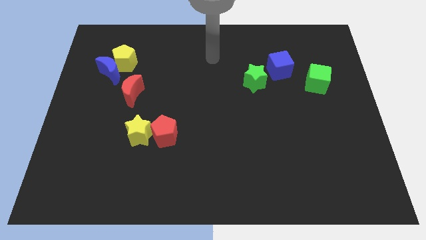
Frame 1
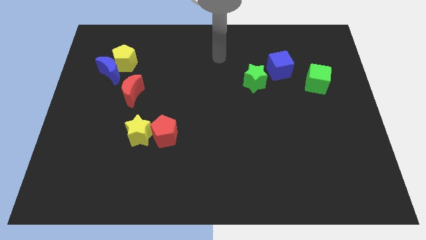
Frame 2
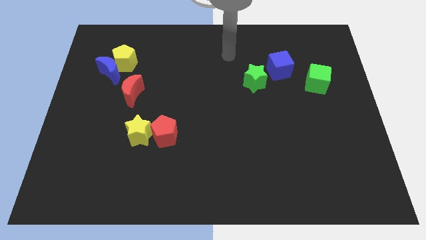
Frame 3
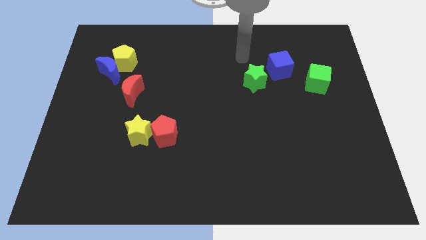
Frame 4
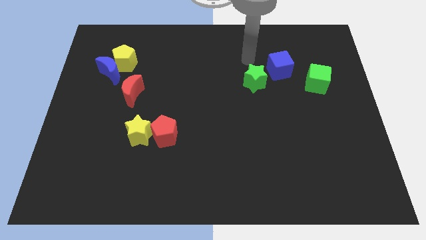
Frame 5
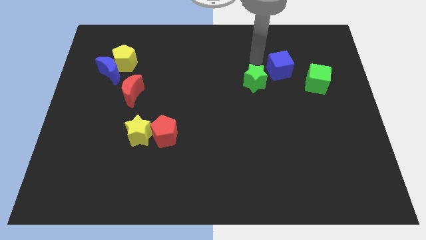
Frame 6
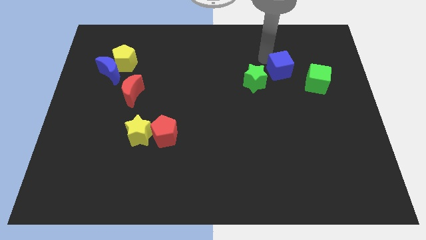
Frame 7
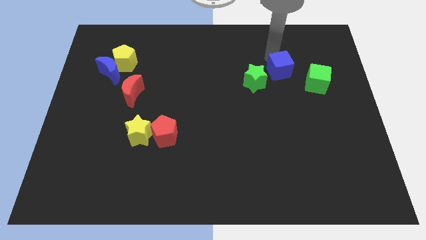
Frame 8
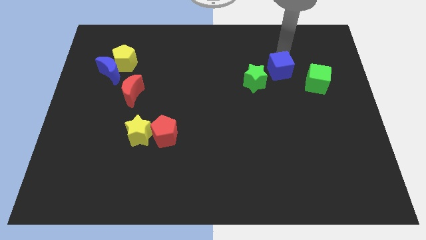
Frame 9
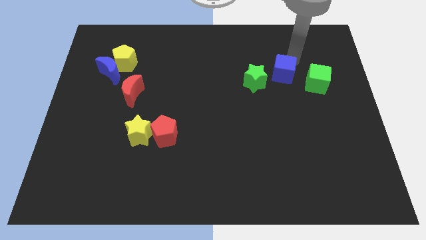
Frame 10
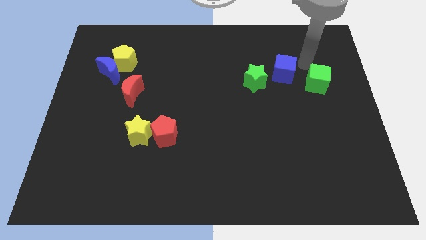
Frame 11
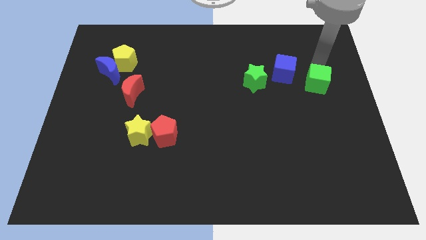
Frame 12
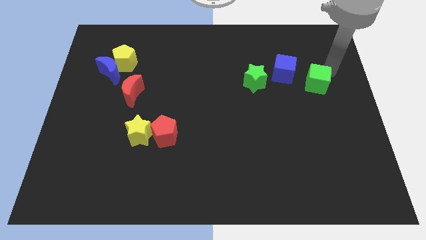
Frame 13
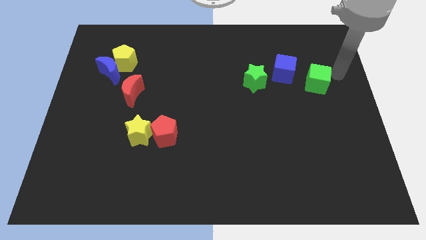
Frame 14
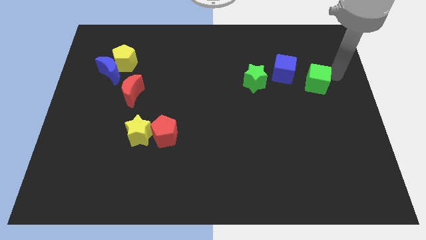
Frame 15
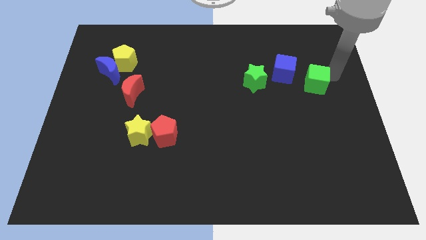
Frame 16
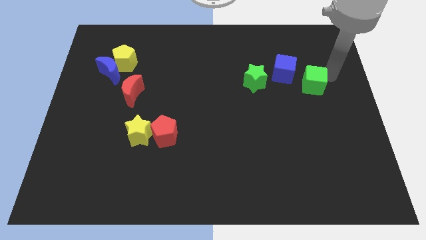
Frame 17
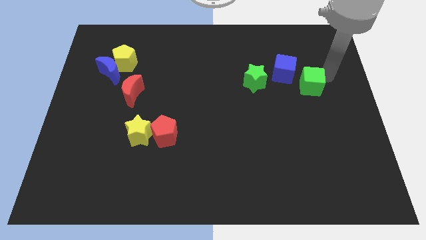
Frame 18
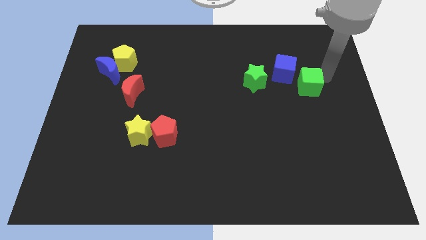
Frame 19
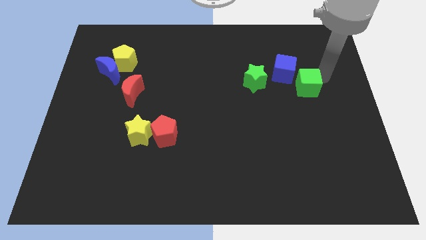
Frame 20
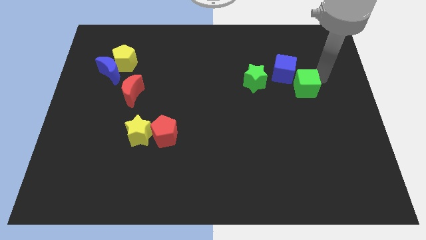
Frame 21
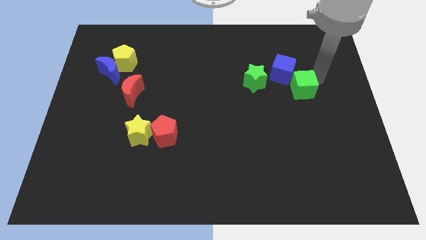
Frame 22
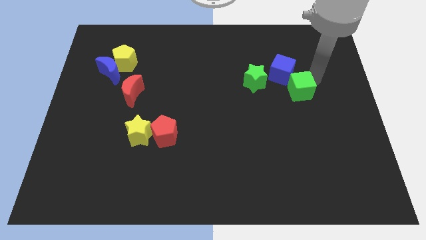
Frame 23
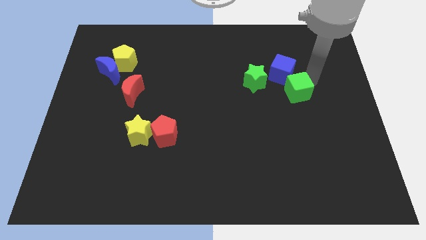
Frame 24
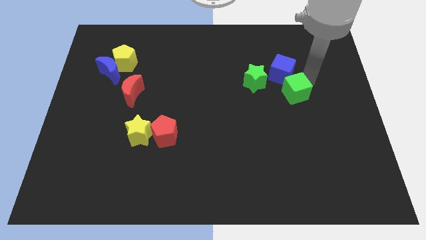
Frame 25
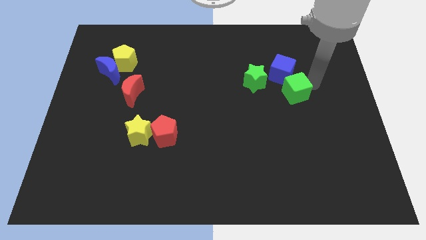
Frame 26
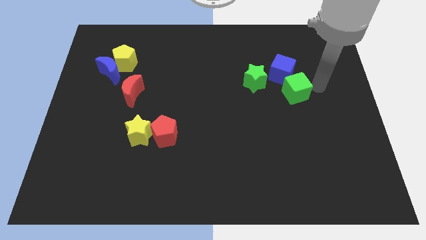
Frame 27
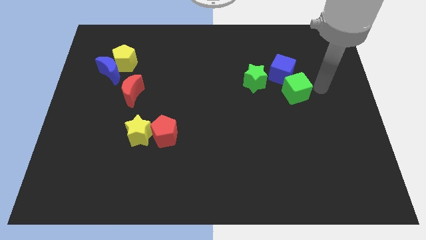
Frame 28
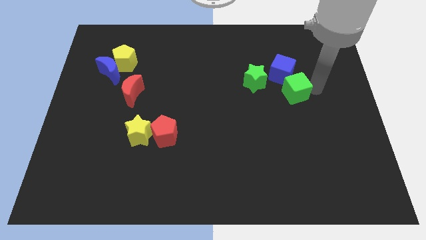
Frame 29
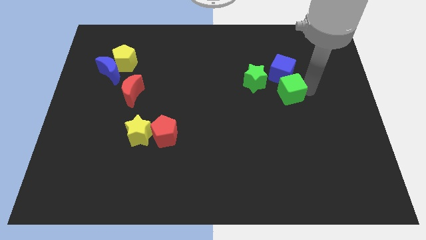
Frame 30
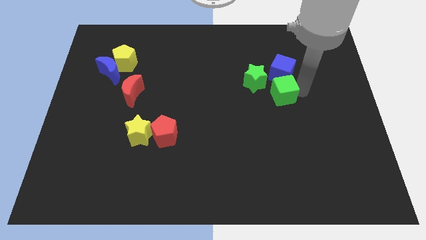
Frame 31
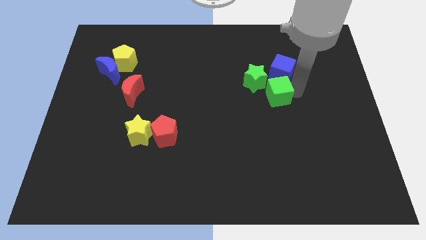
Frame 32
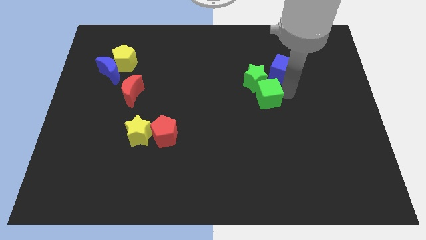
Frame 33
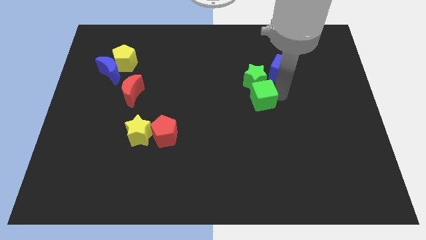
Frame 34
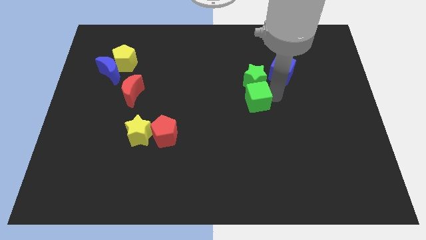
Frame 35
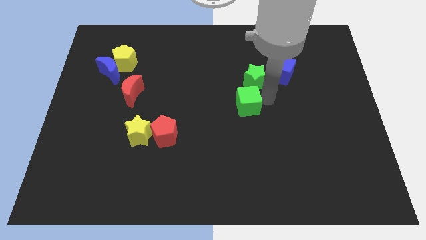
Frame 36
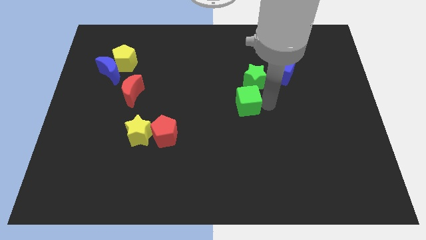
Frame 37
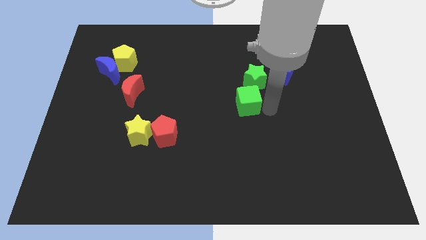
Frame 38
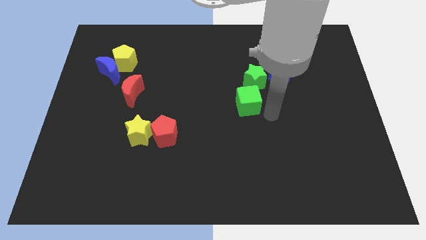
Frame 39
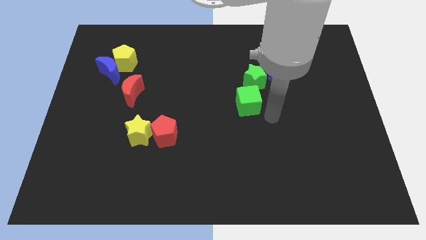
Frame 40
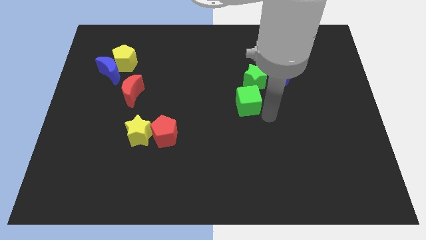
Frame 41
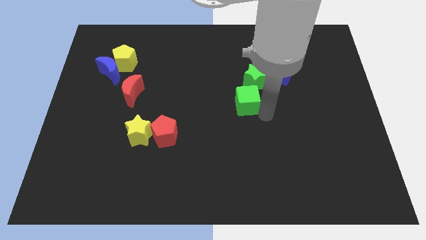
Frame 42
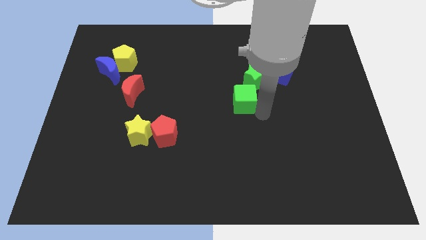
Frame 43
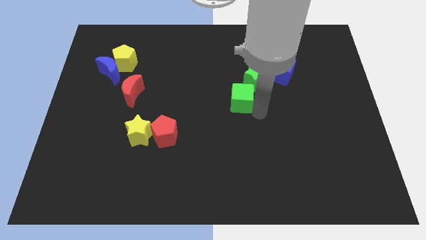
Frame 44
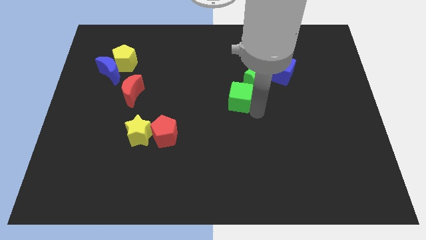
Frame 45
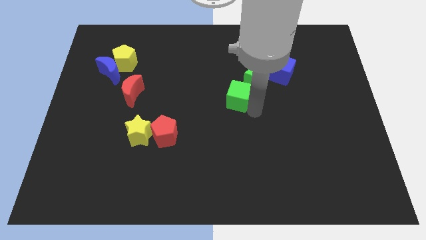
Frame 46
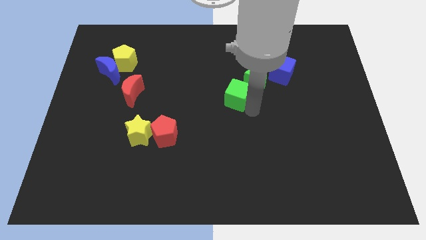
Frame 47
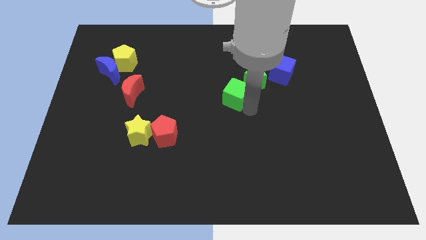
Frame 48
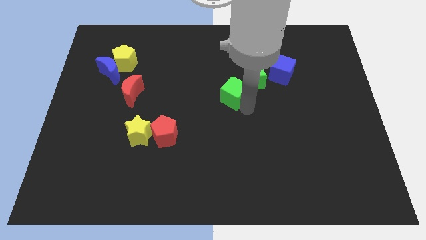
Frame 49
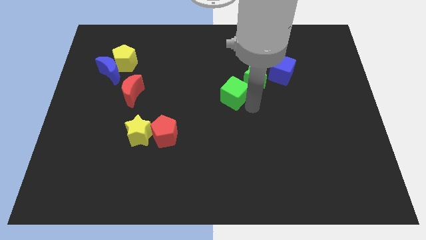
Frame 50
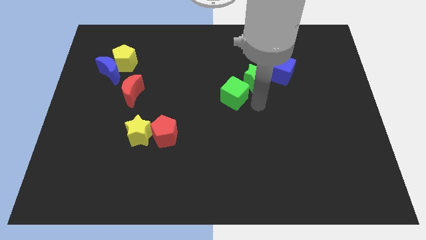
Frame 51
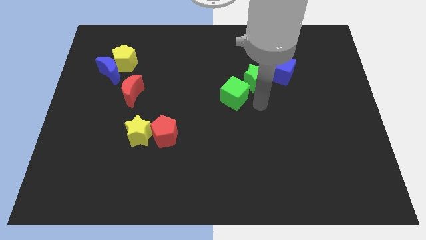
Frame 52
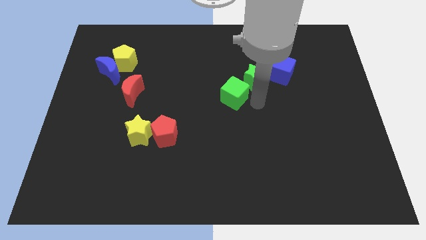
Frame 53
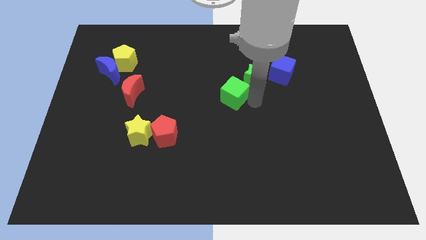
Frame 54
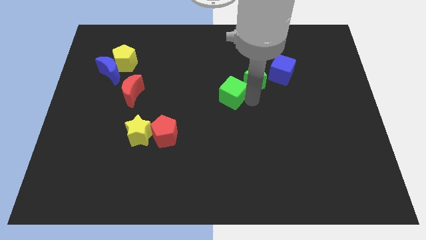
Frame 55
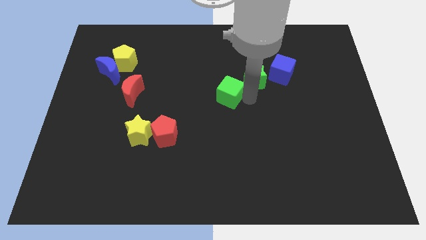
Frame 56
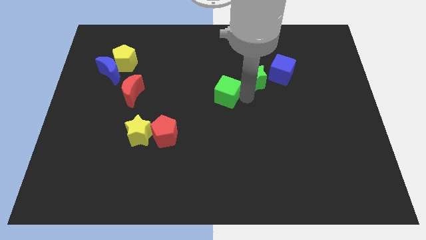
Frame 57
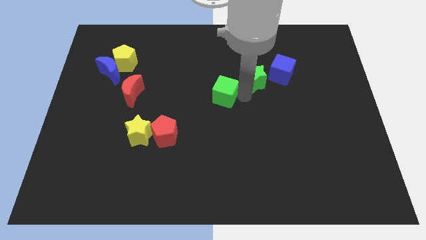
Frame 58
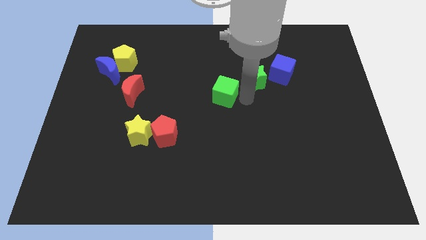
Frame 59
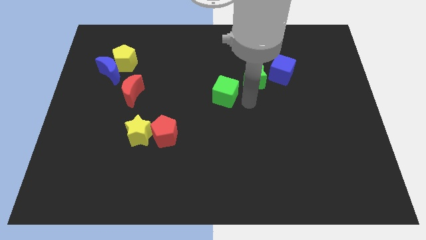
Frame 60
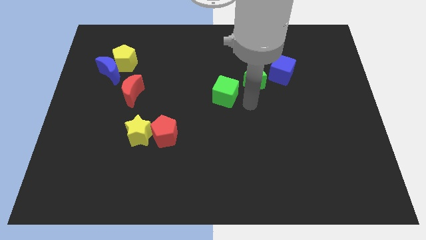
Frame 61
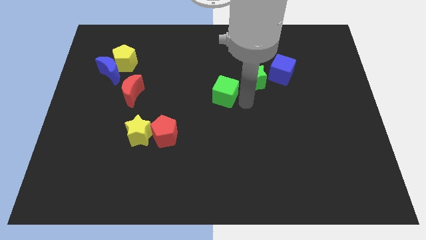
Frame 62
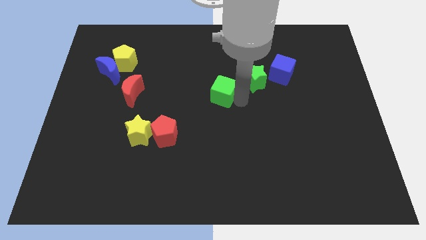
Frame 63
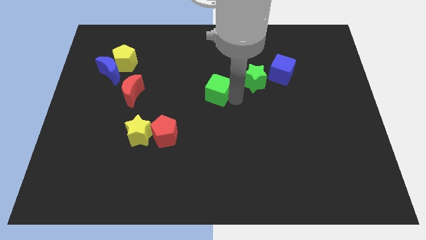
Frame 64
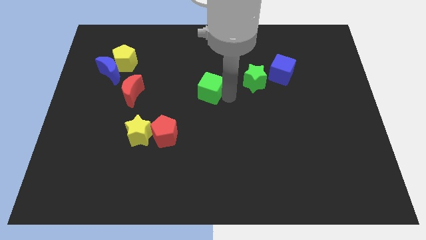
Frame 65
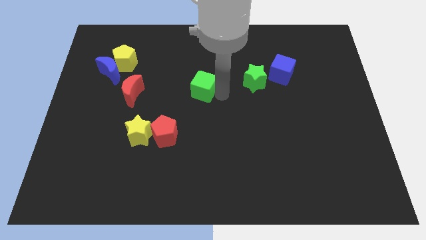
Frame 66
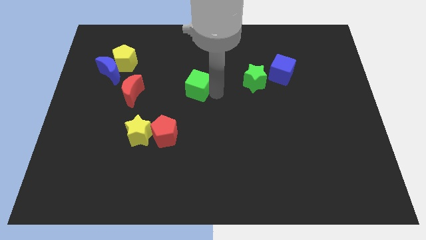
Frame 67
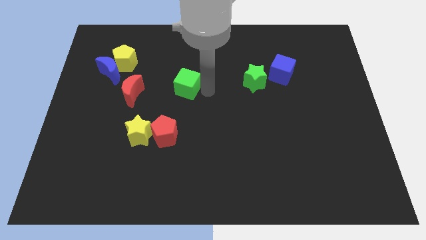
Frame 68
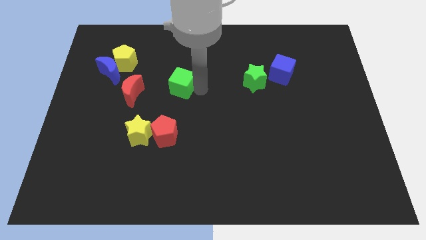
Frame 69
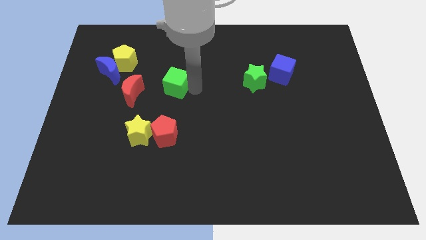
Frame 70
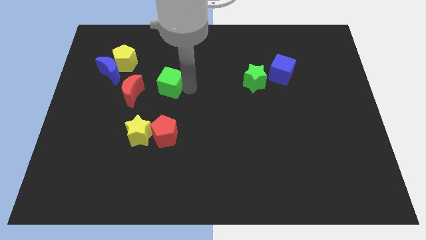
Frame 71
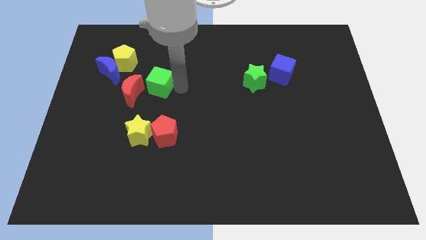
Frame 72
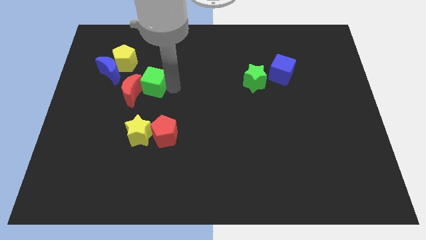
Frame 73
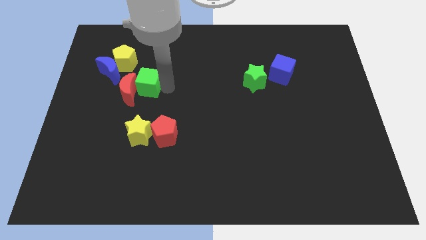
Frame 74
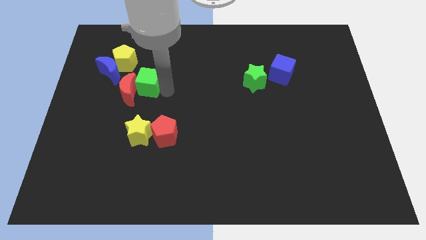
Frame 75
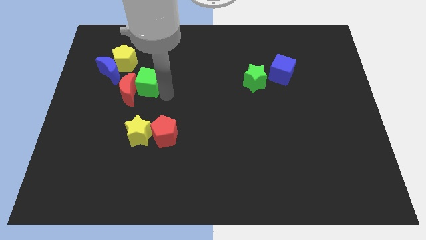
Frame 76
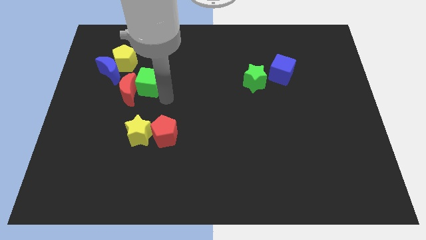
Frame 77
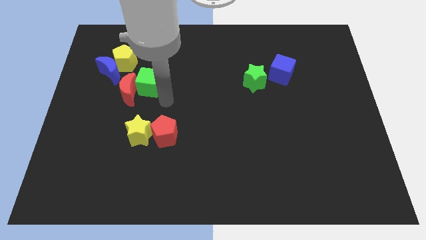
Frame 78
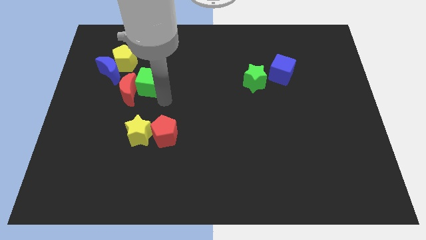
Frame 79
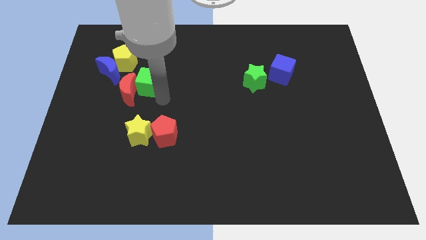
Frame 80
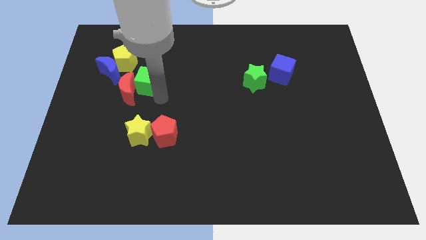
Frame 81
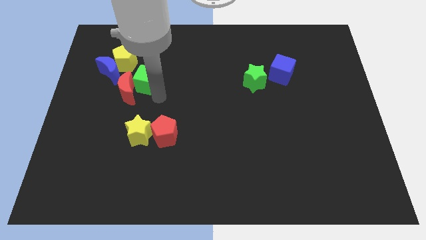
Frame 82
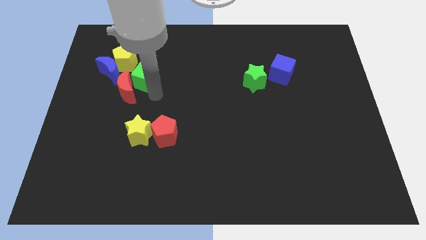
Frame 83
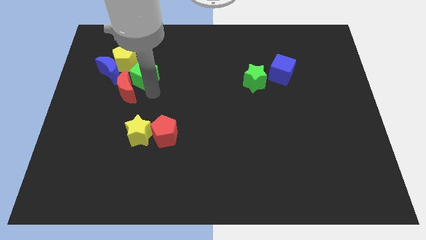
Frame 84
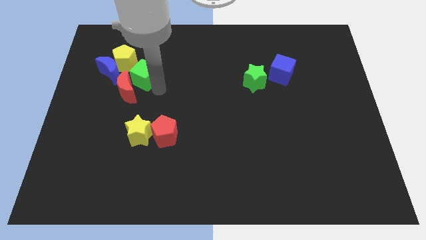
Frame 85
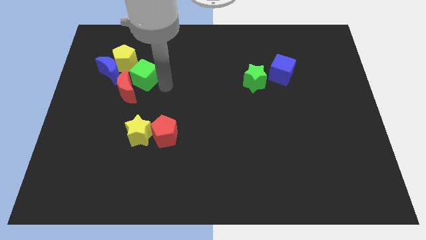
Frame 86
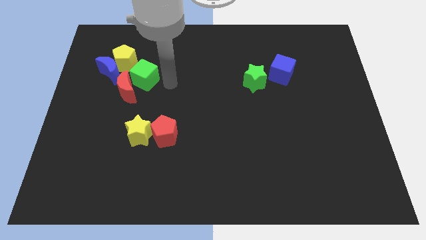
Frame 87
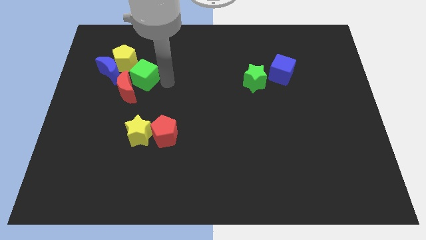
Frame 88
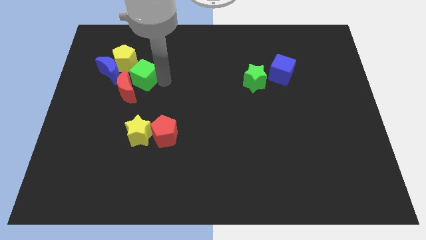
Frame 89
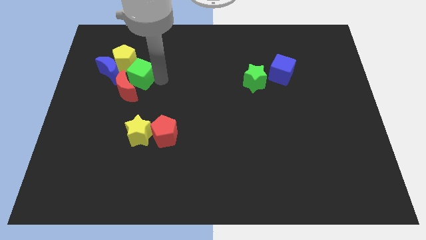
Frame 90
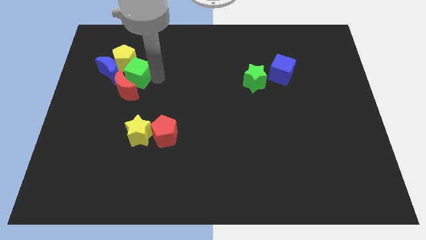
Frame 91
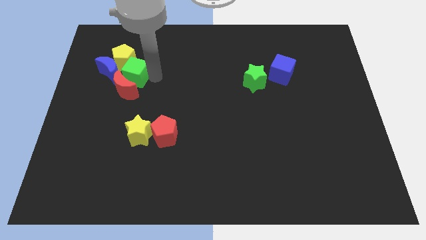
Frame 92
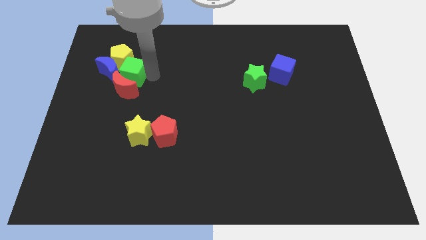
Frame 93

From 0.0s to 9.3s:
slide the green cube towards the blue moon
